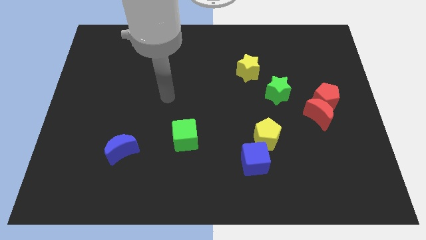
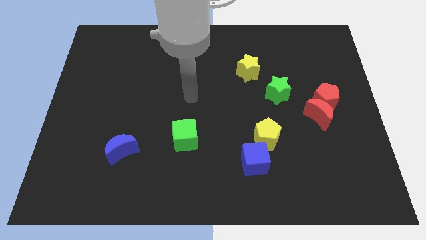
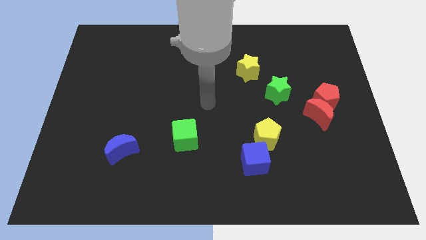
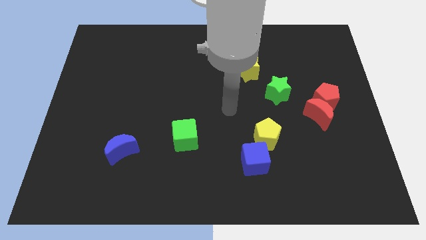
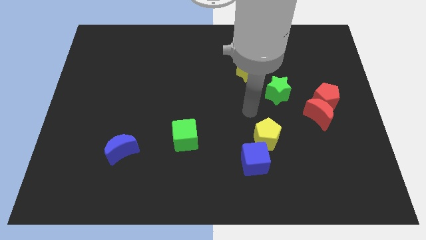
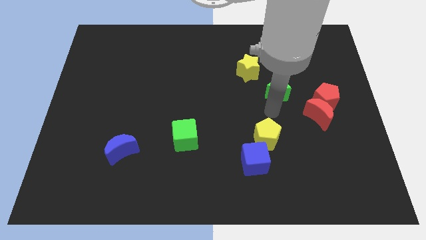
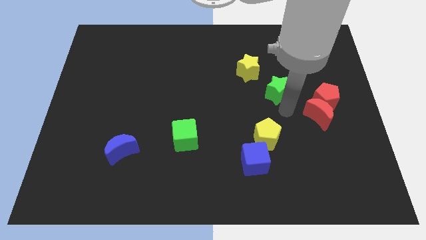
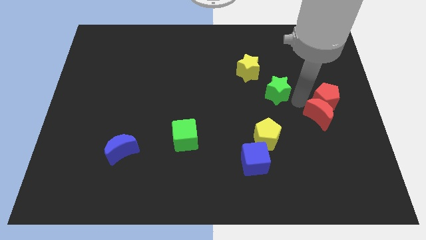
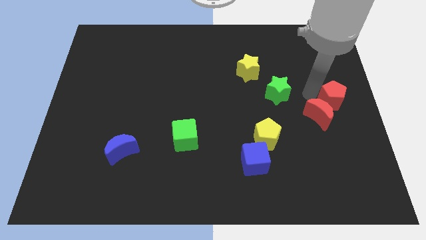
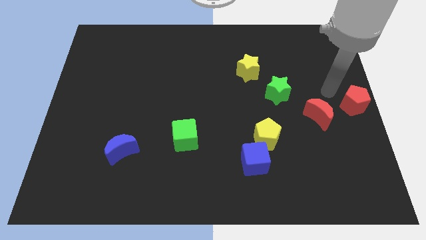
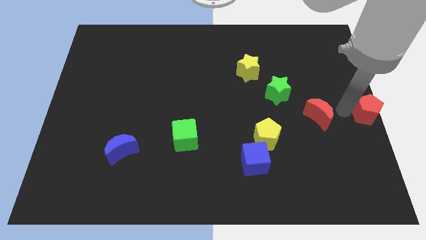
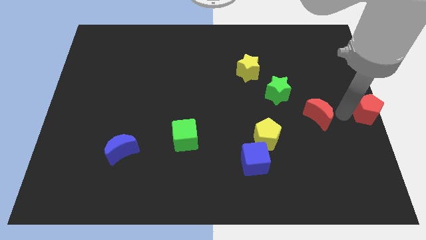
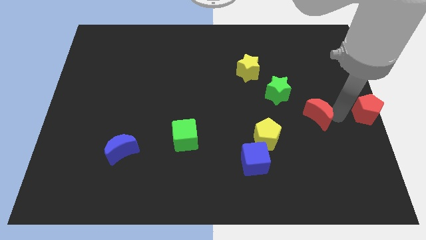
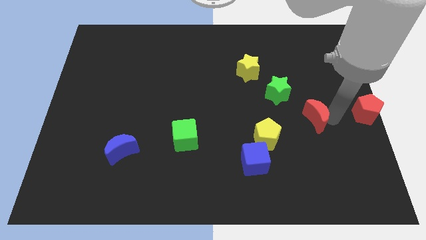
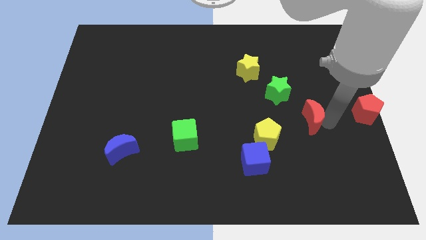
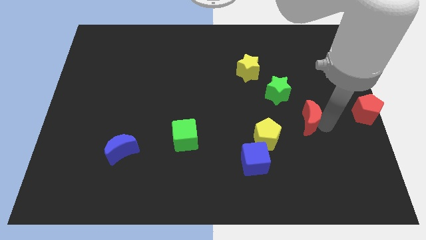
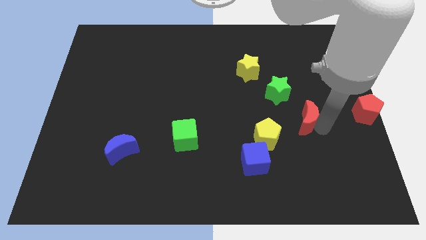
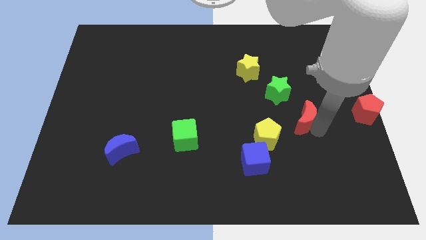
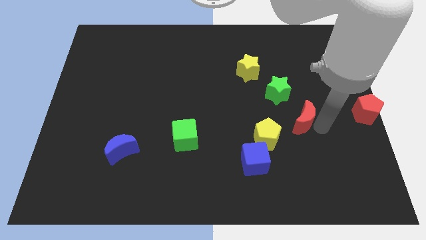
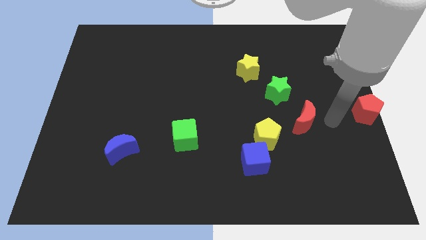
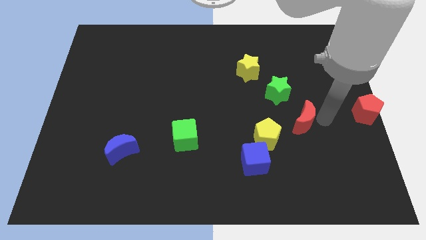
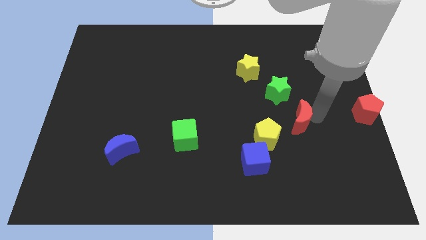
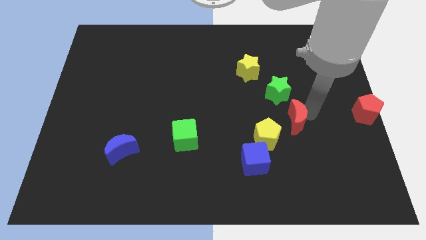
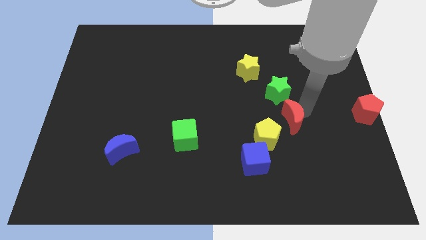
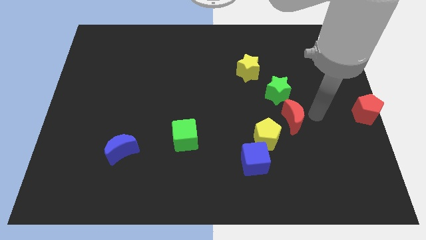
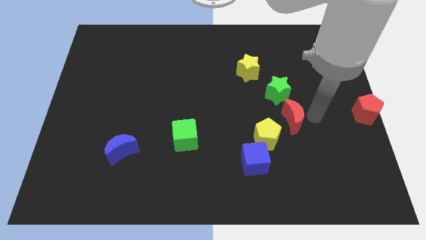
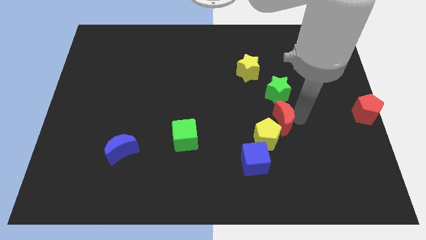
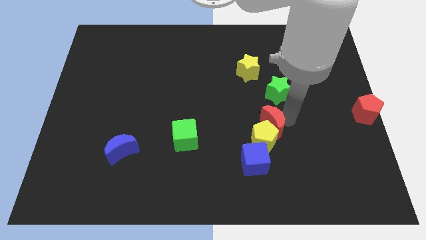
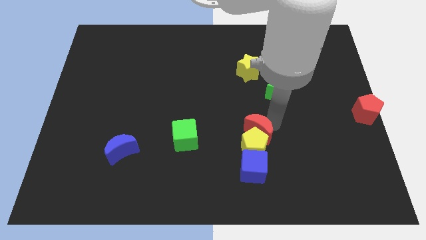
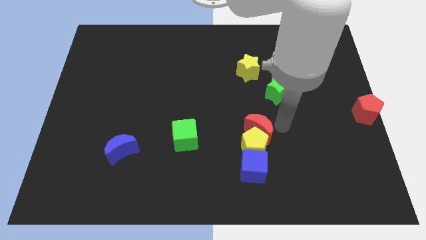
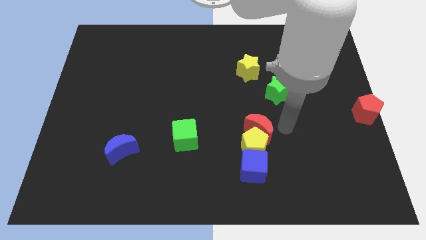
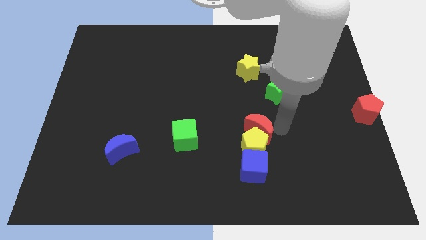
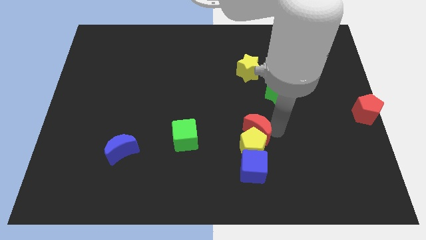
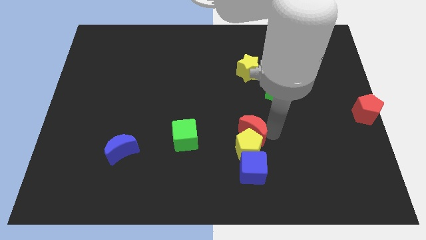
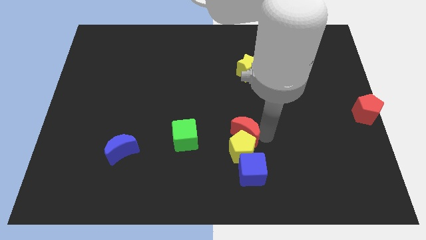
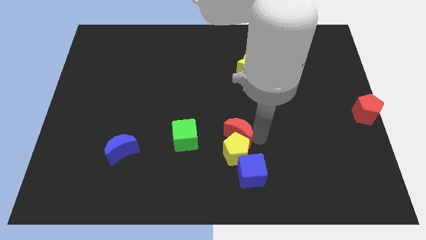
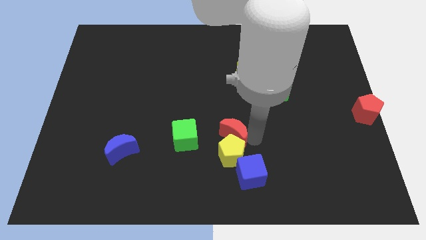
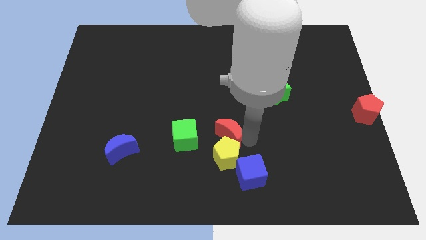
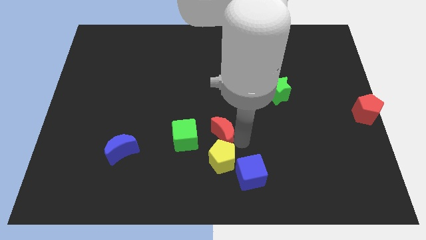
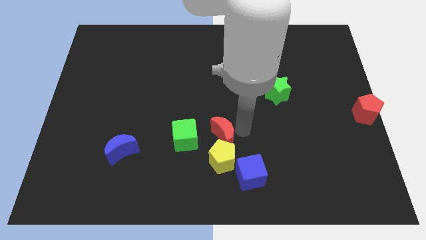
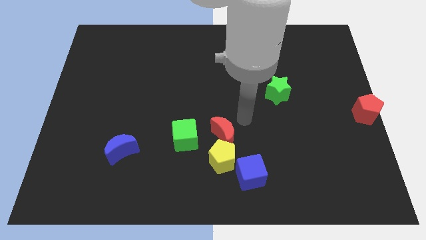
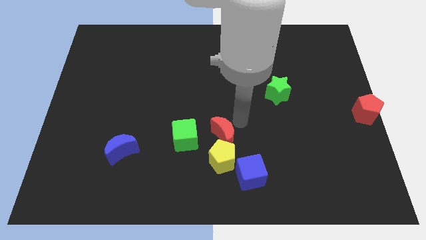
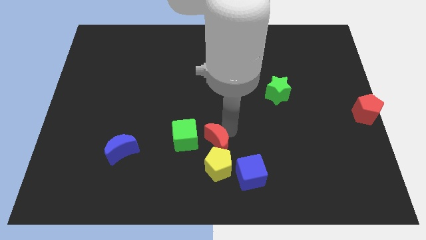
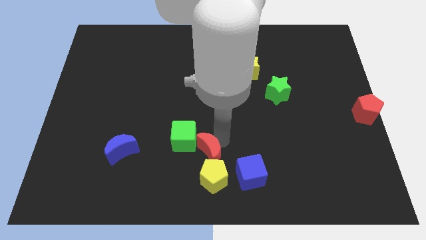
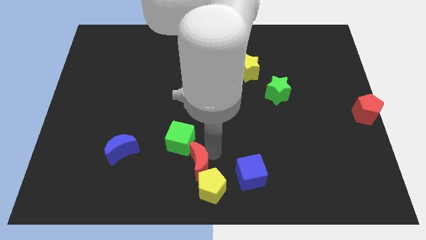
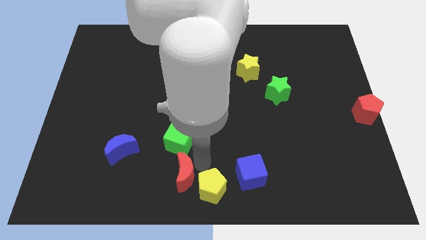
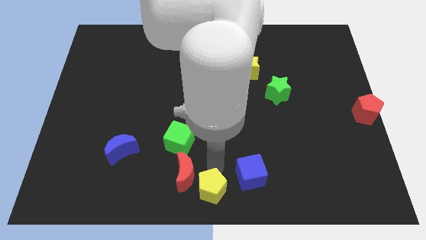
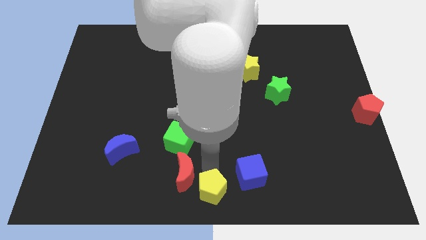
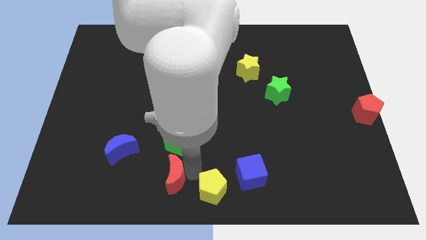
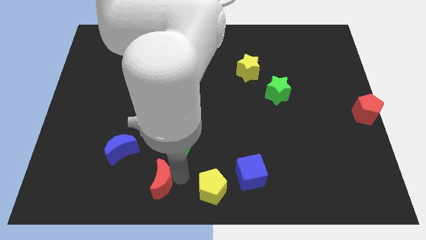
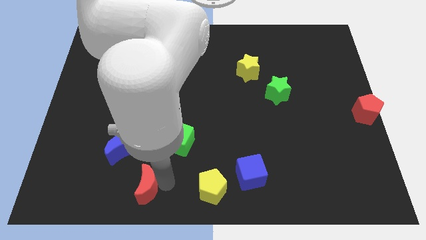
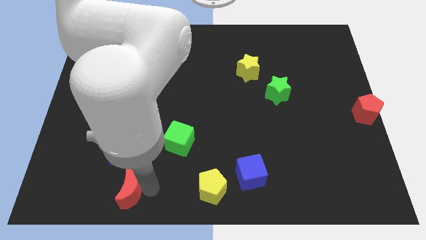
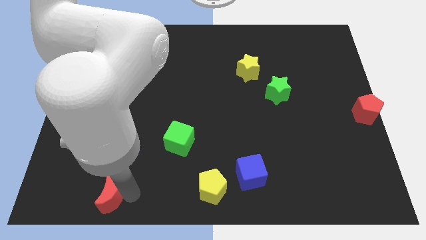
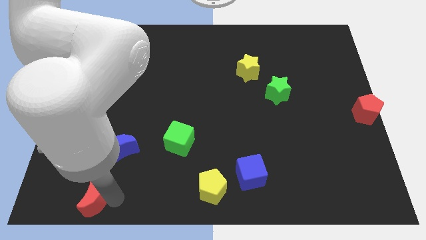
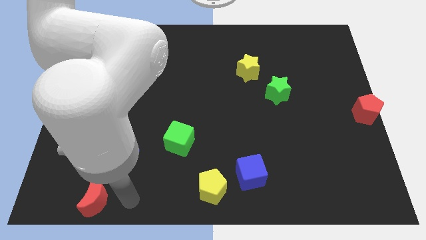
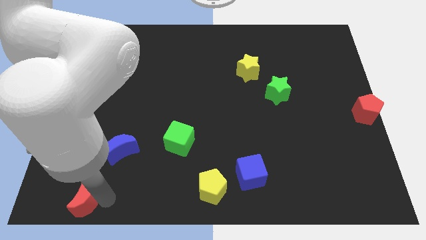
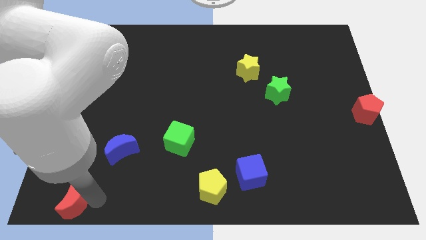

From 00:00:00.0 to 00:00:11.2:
push the red moon to the bottom left

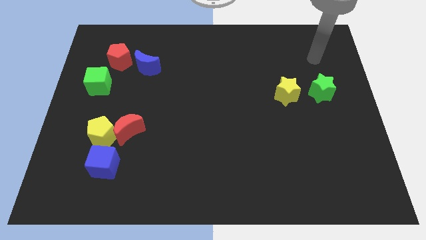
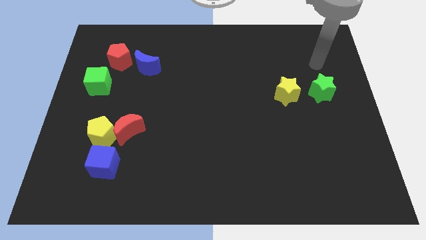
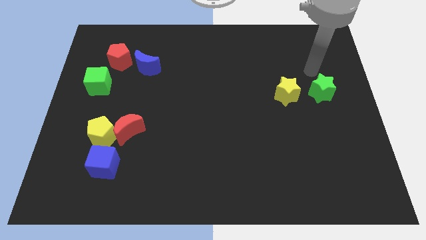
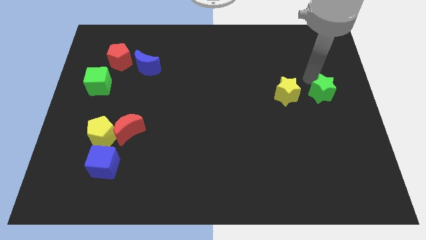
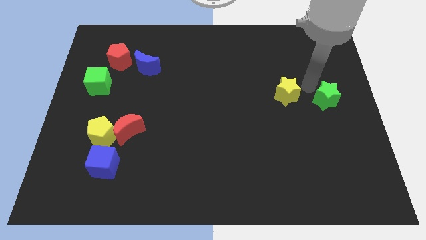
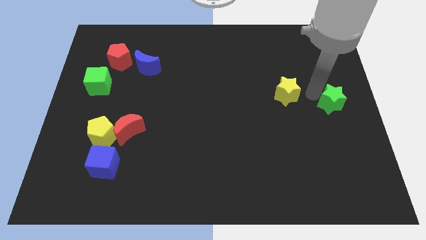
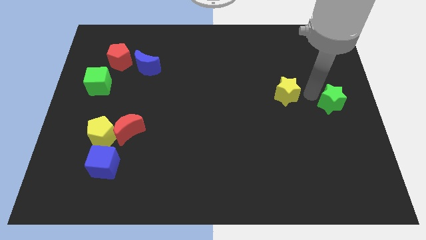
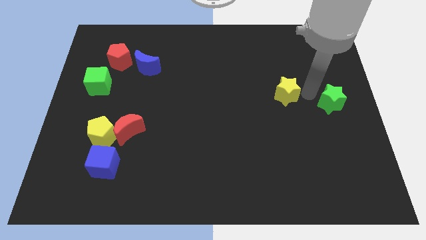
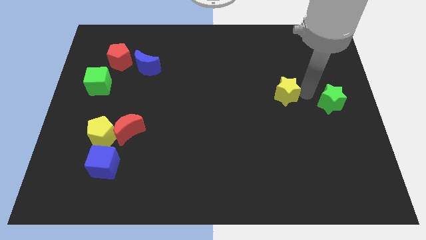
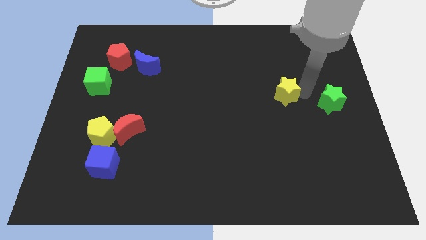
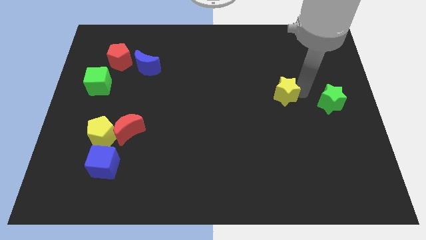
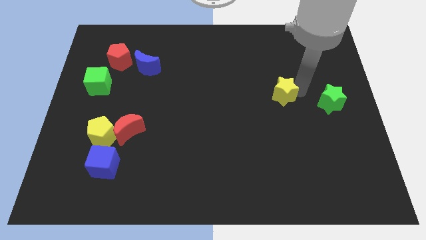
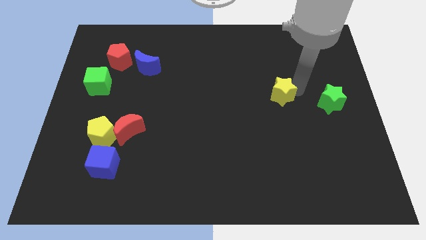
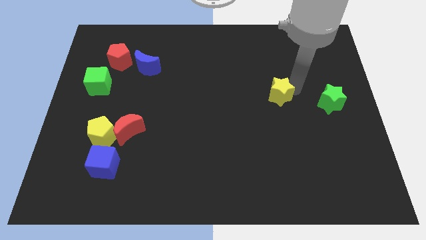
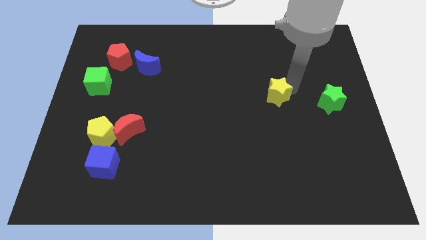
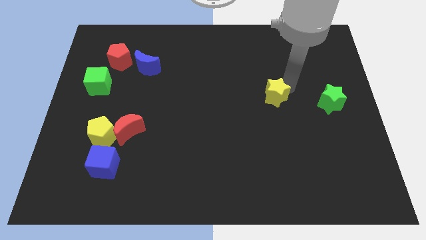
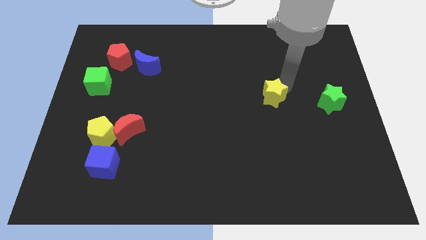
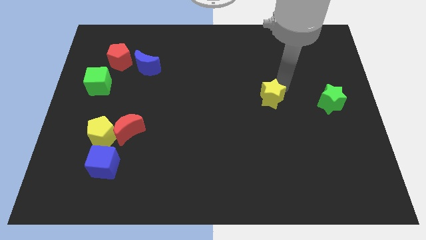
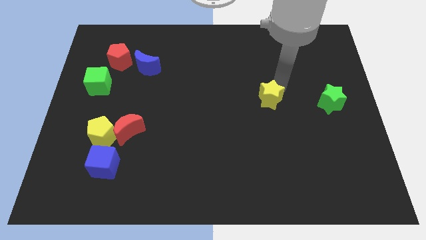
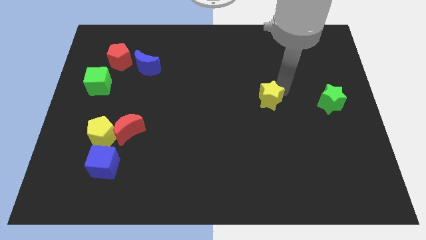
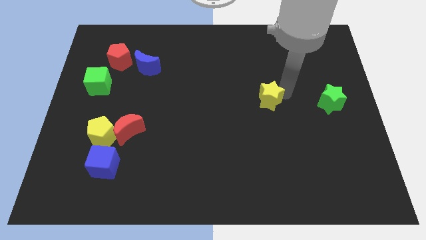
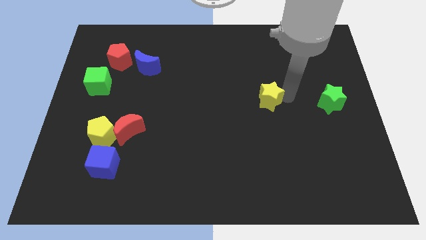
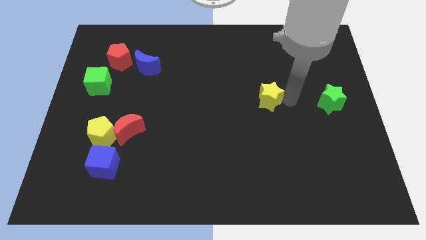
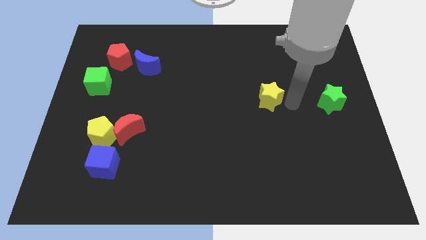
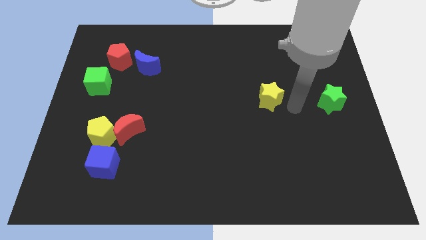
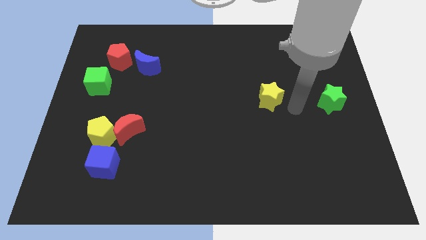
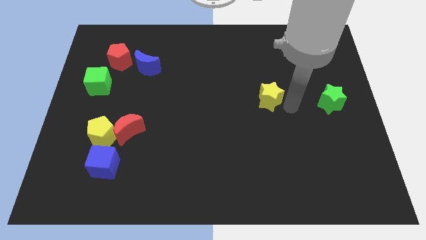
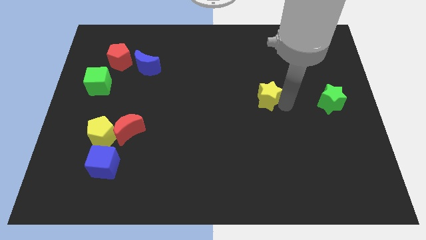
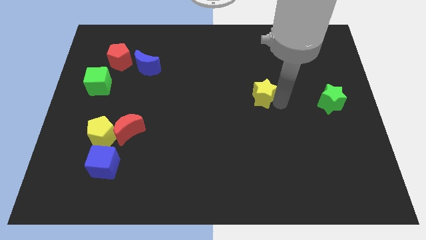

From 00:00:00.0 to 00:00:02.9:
slide the yellow star to the middle of the board
